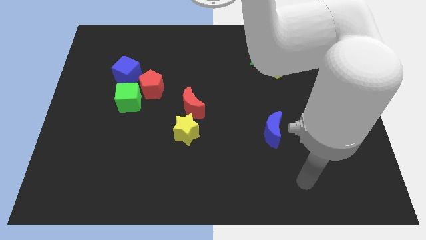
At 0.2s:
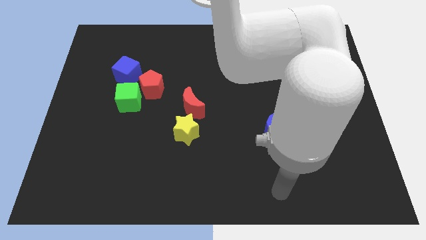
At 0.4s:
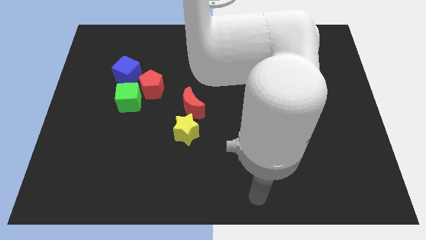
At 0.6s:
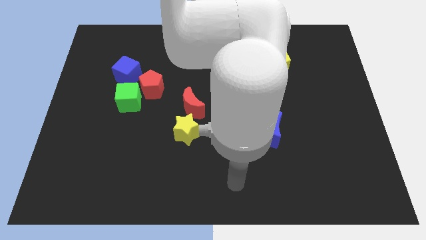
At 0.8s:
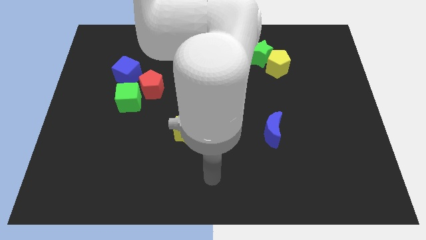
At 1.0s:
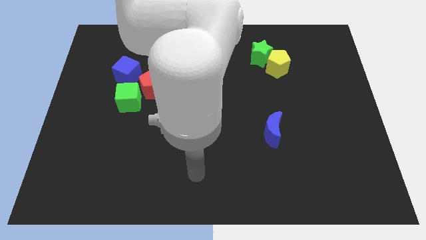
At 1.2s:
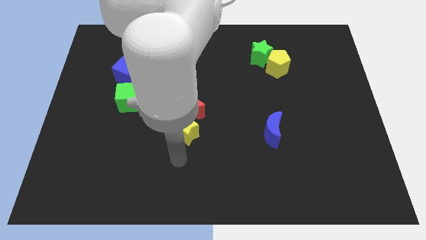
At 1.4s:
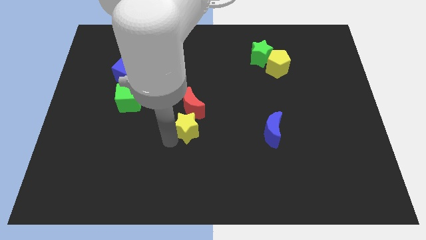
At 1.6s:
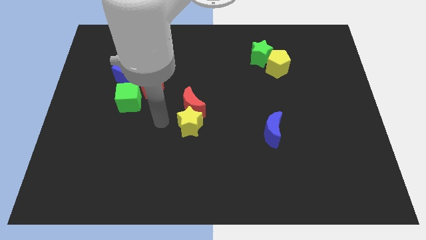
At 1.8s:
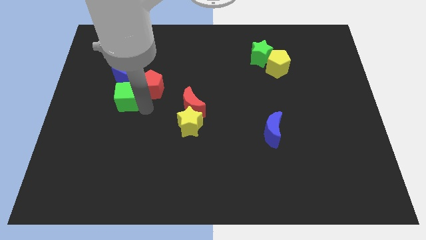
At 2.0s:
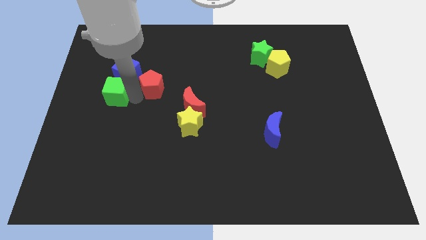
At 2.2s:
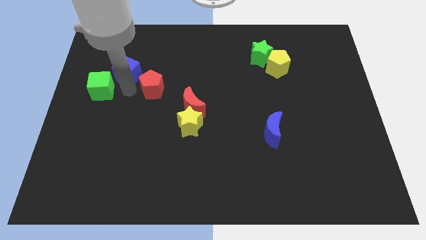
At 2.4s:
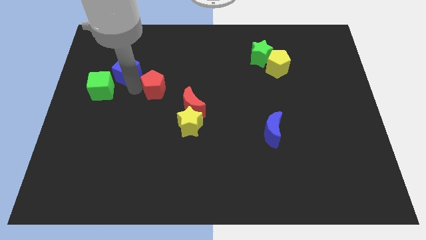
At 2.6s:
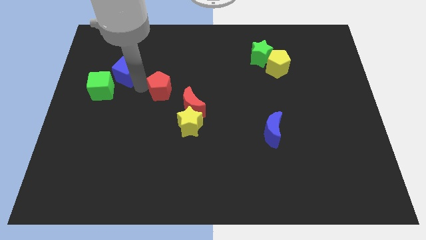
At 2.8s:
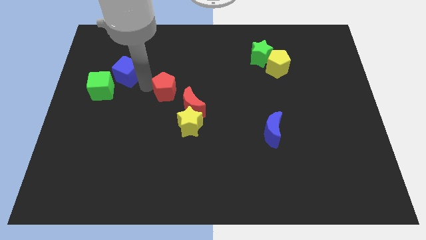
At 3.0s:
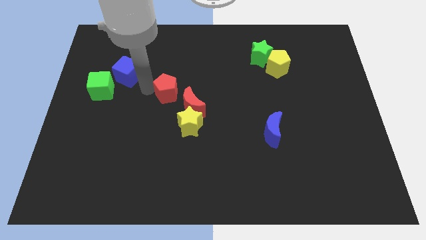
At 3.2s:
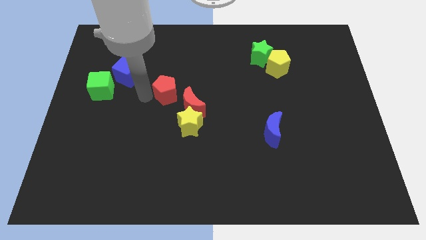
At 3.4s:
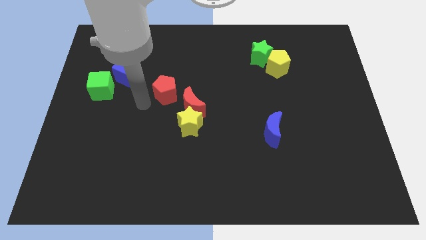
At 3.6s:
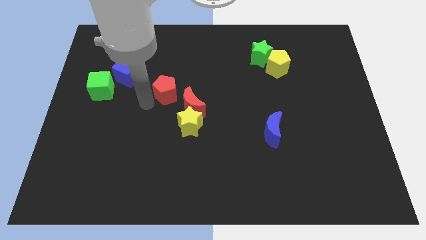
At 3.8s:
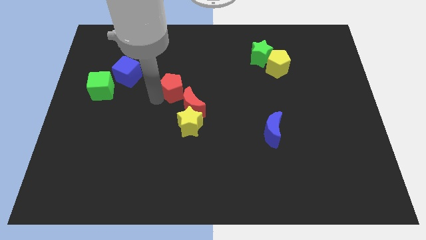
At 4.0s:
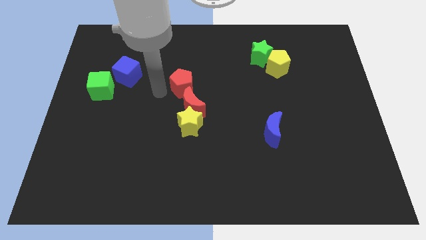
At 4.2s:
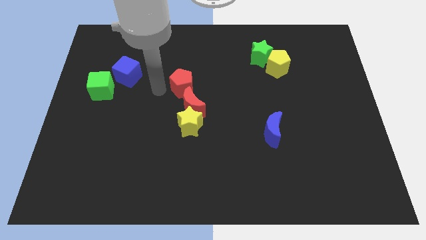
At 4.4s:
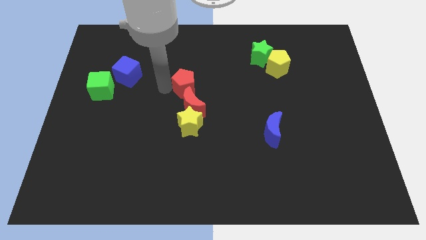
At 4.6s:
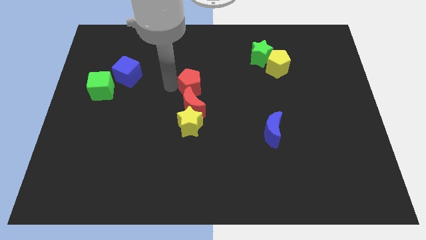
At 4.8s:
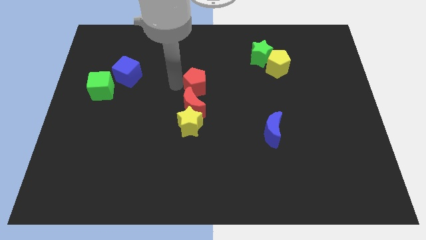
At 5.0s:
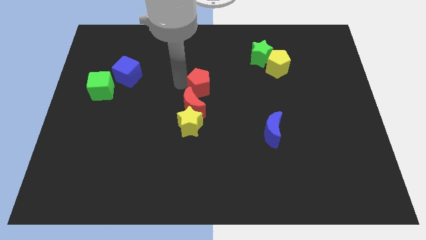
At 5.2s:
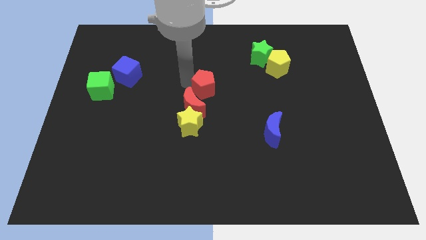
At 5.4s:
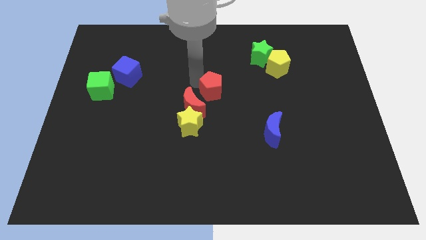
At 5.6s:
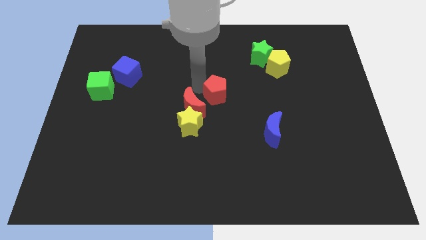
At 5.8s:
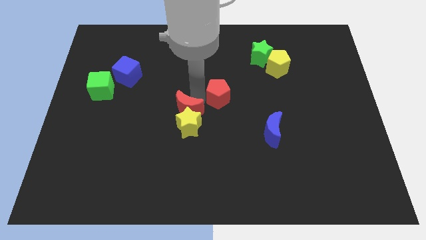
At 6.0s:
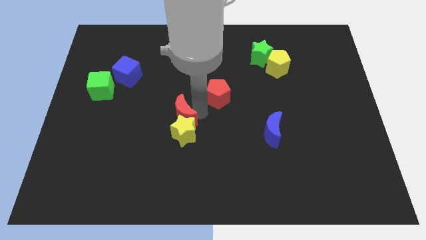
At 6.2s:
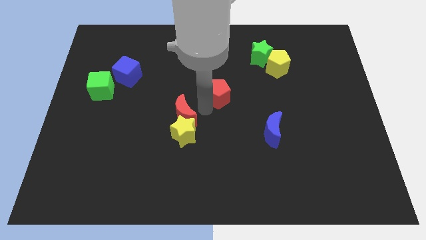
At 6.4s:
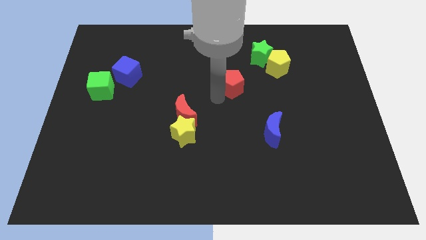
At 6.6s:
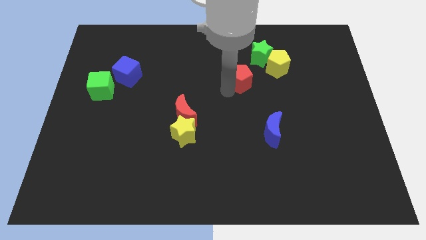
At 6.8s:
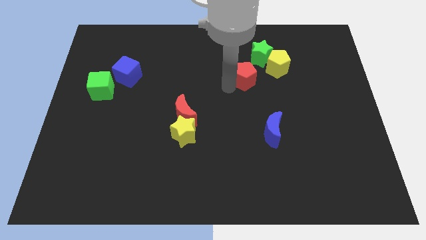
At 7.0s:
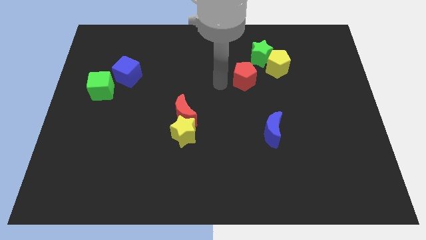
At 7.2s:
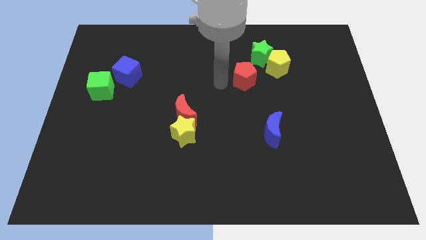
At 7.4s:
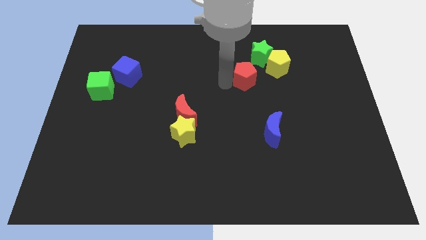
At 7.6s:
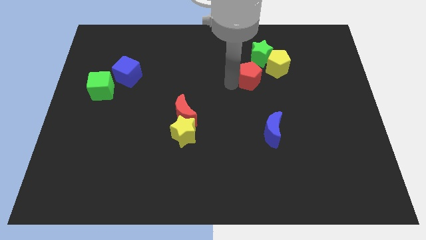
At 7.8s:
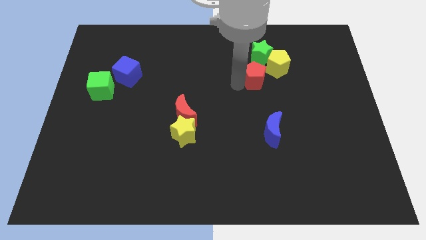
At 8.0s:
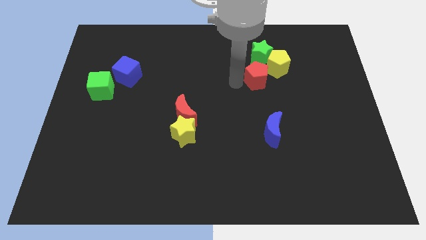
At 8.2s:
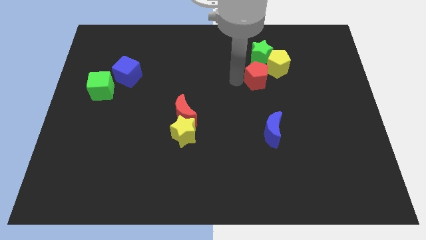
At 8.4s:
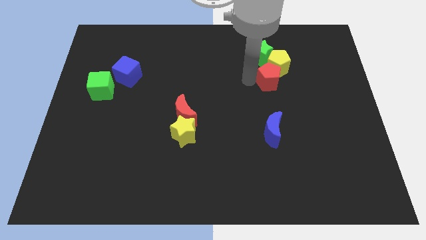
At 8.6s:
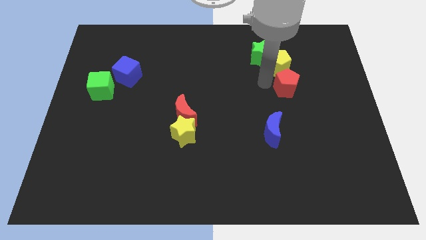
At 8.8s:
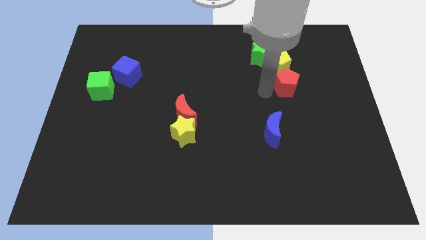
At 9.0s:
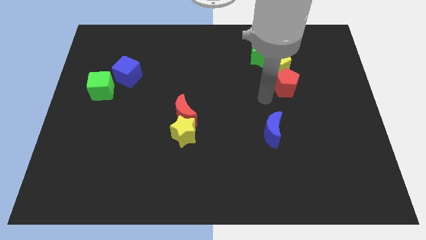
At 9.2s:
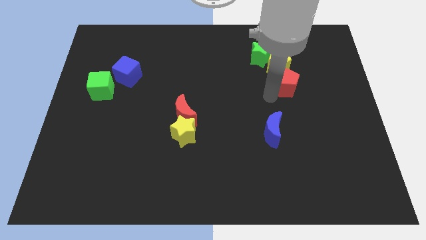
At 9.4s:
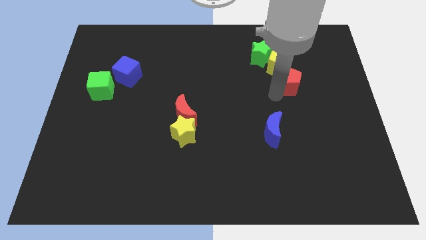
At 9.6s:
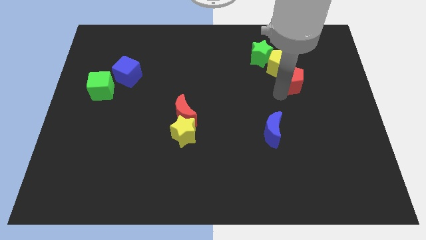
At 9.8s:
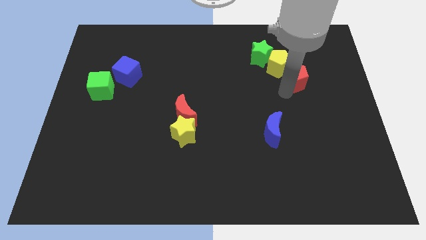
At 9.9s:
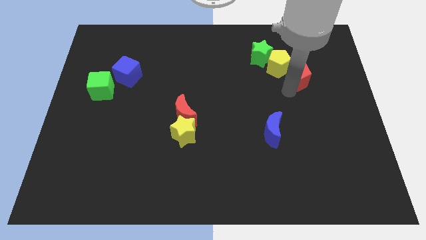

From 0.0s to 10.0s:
slide the red pentagon right of the yellow pentagon

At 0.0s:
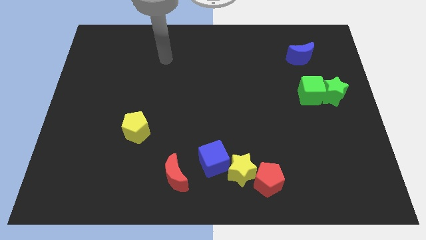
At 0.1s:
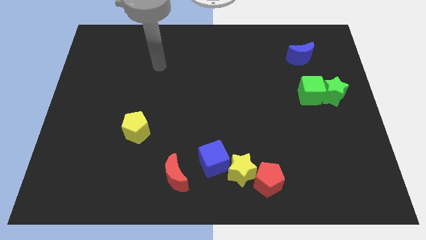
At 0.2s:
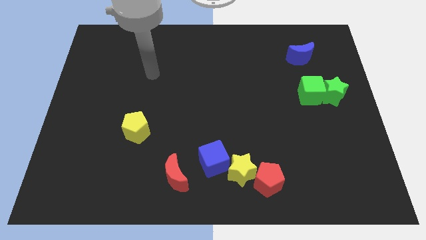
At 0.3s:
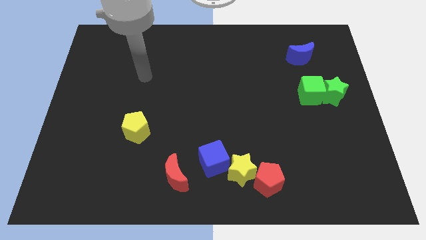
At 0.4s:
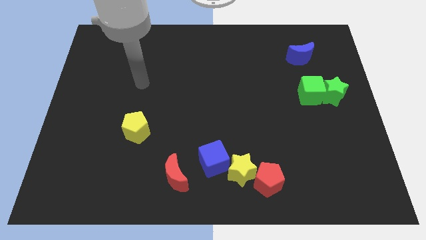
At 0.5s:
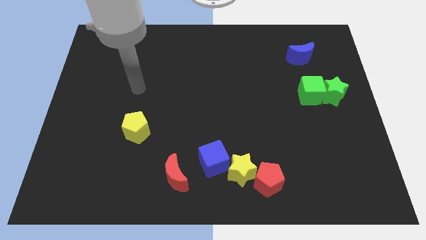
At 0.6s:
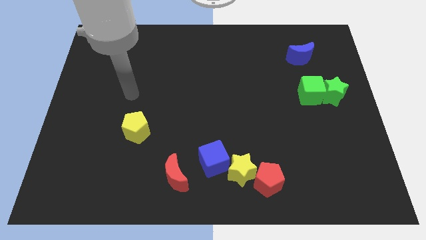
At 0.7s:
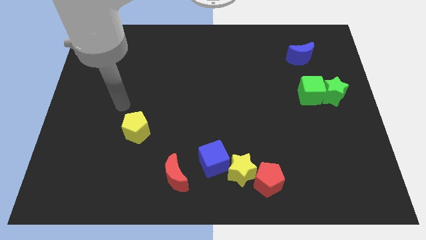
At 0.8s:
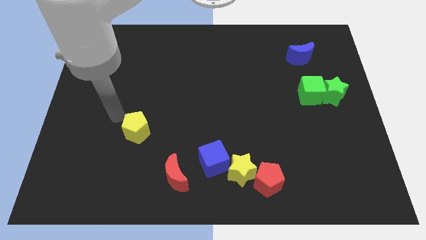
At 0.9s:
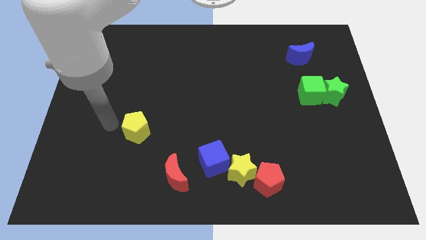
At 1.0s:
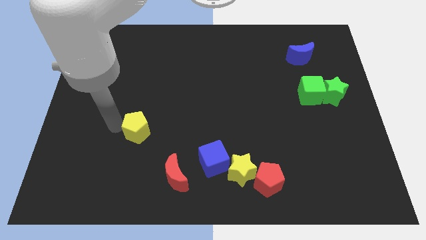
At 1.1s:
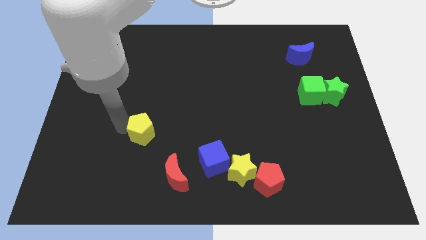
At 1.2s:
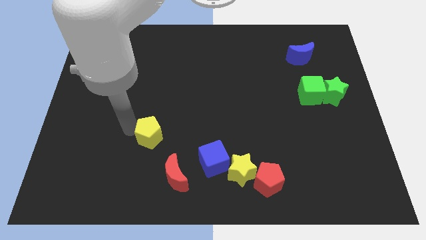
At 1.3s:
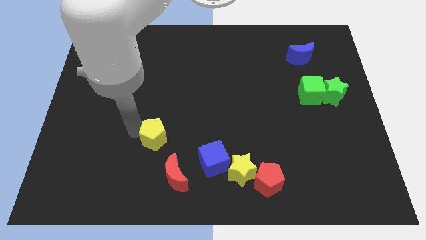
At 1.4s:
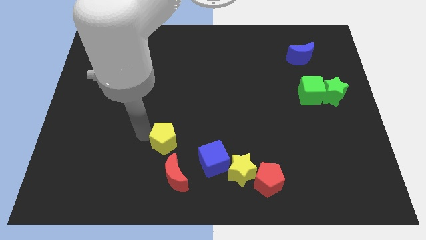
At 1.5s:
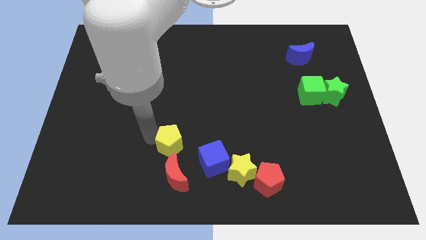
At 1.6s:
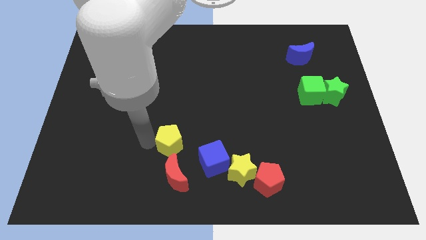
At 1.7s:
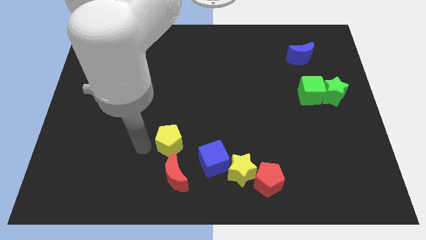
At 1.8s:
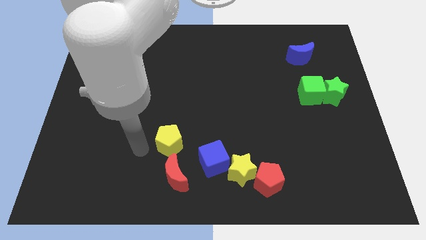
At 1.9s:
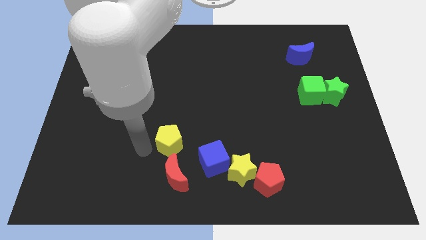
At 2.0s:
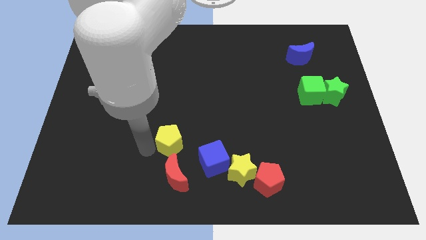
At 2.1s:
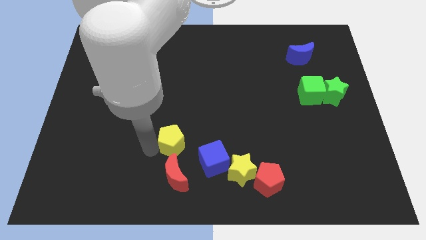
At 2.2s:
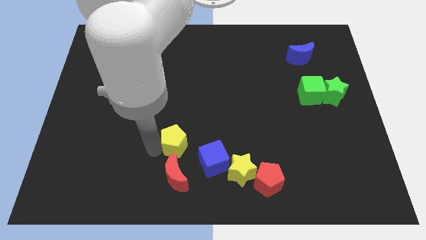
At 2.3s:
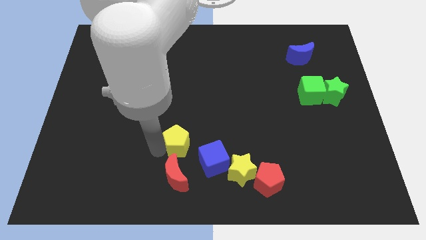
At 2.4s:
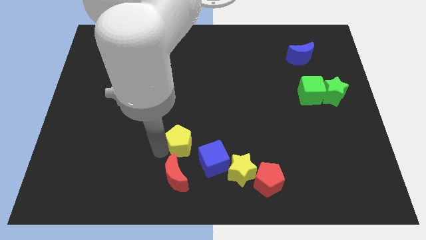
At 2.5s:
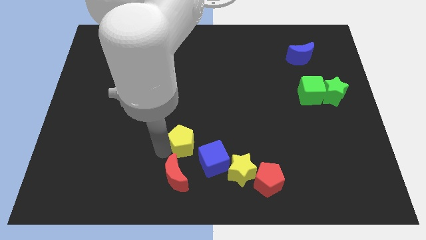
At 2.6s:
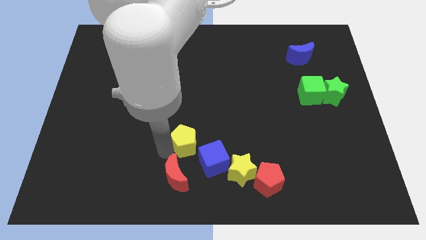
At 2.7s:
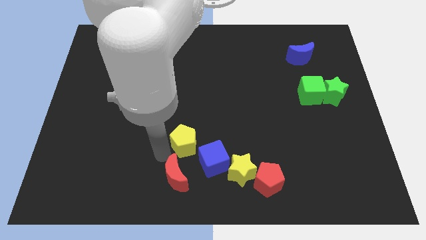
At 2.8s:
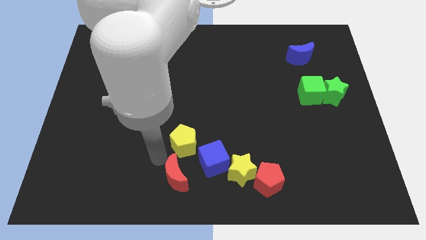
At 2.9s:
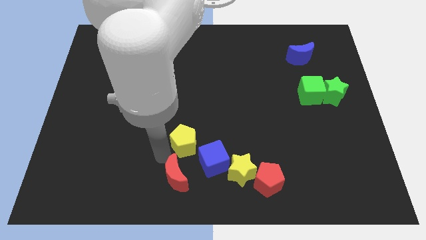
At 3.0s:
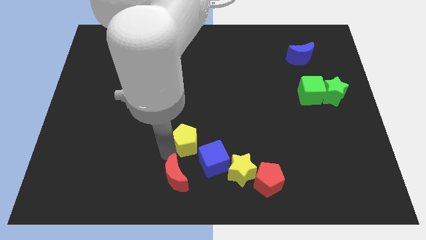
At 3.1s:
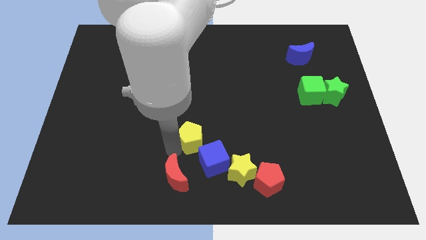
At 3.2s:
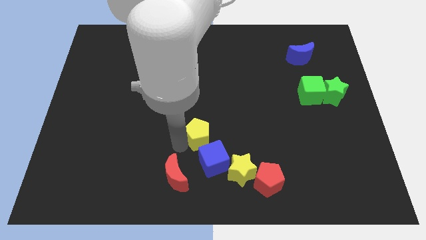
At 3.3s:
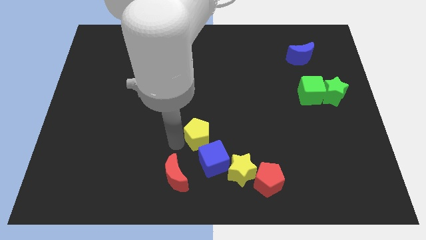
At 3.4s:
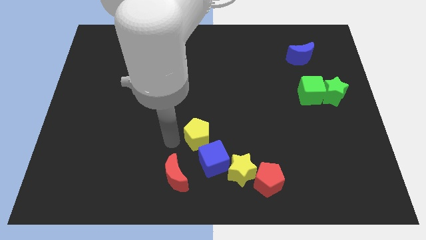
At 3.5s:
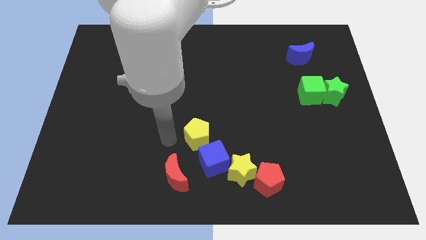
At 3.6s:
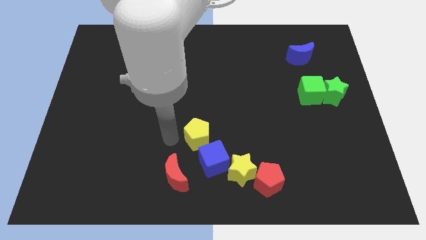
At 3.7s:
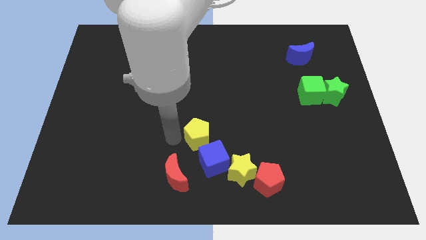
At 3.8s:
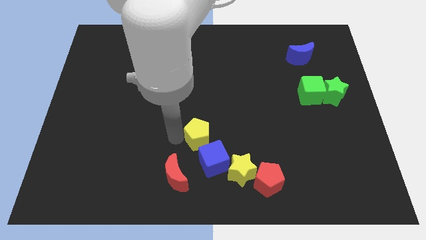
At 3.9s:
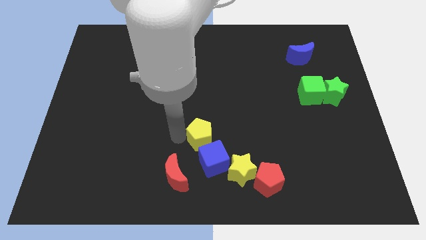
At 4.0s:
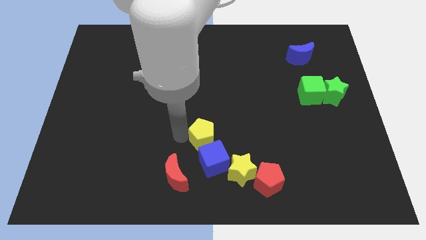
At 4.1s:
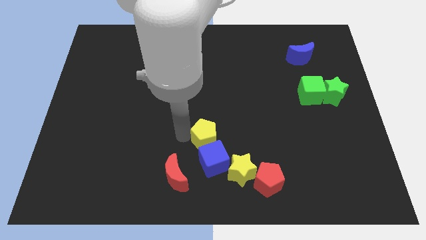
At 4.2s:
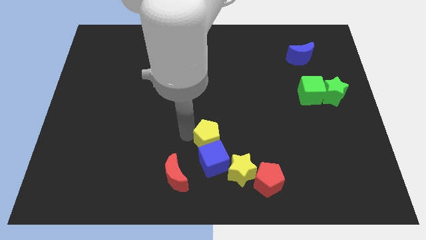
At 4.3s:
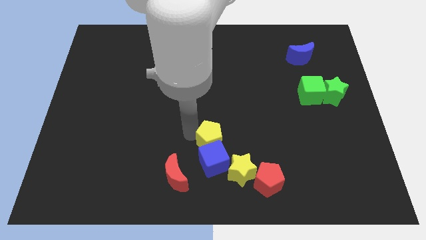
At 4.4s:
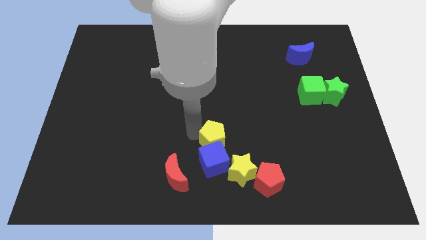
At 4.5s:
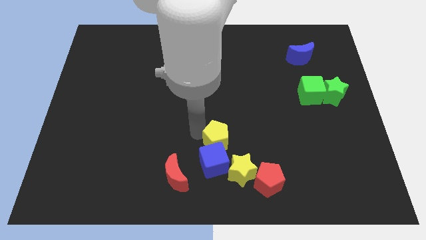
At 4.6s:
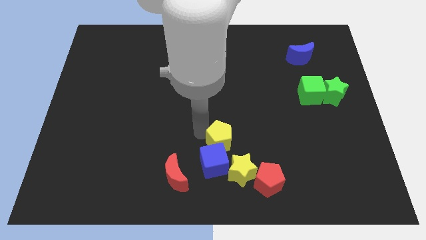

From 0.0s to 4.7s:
move the yellow pentagon to the top of the yellow star
